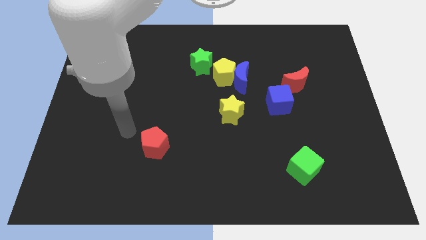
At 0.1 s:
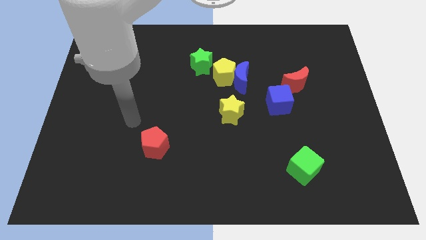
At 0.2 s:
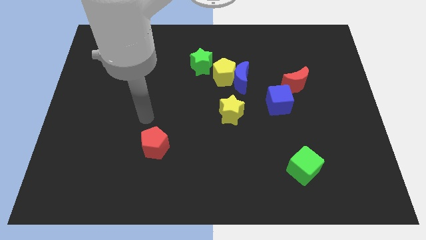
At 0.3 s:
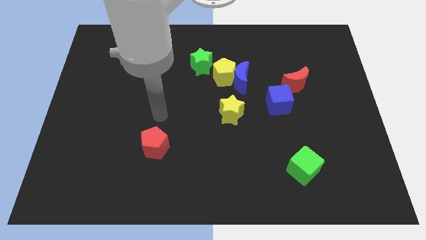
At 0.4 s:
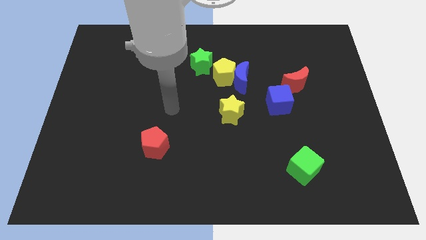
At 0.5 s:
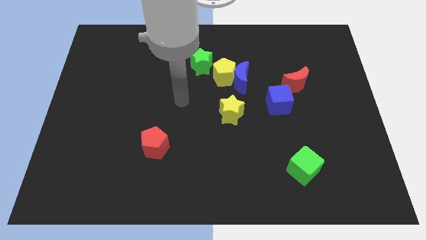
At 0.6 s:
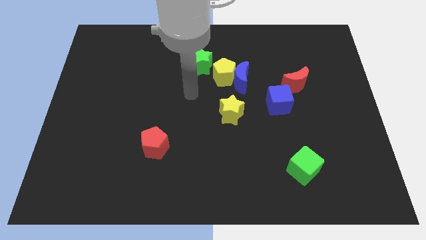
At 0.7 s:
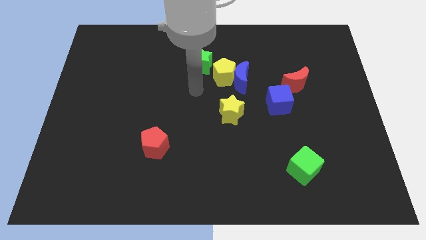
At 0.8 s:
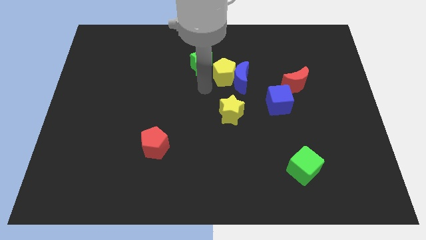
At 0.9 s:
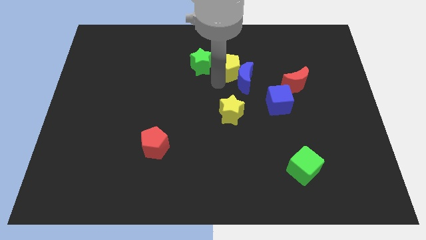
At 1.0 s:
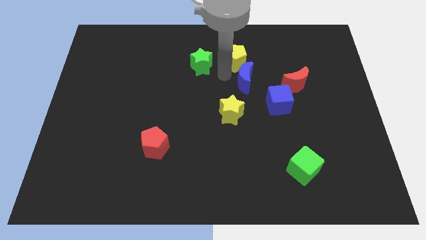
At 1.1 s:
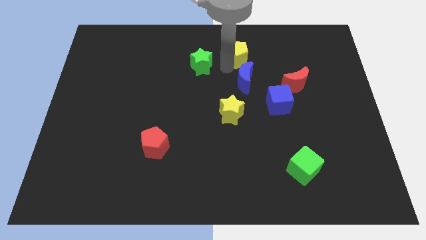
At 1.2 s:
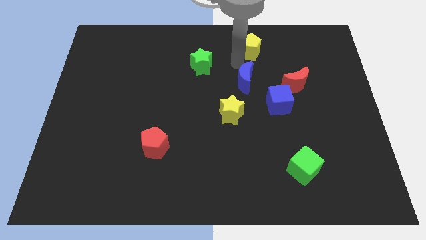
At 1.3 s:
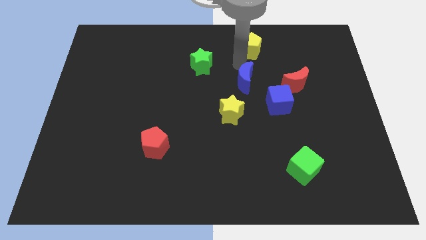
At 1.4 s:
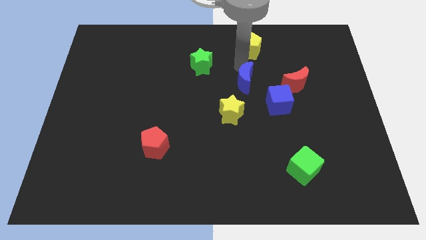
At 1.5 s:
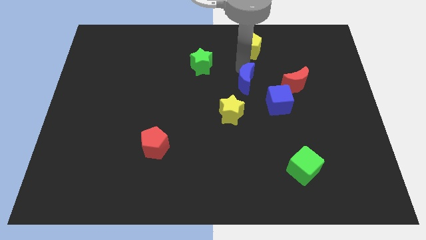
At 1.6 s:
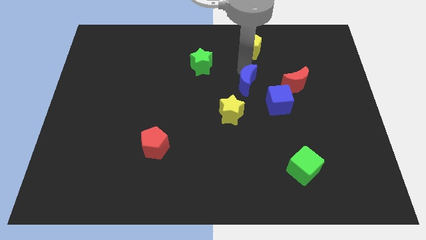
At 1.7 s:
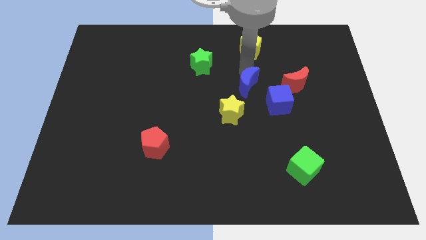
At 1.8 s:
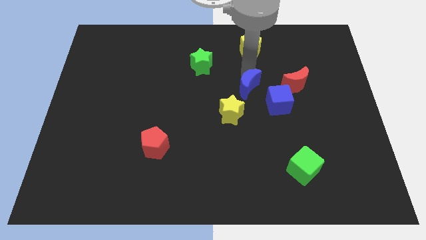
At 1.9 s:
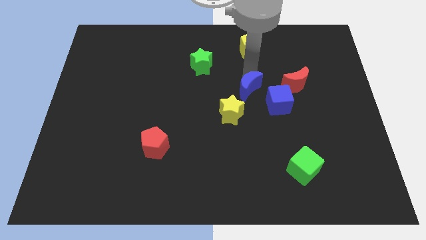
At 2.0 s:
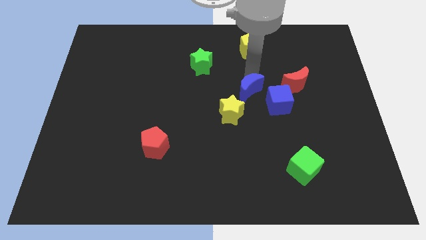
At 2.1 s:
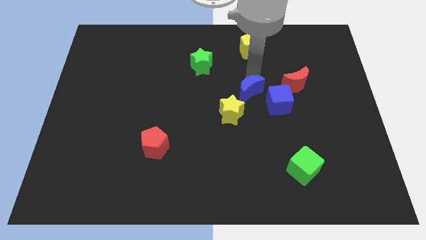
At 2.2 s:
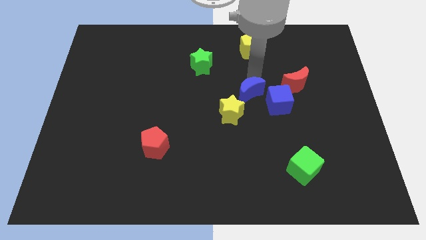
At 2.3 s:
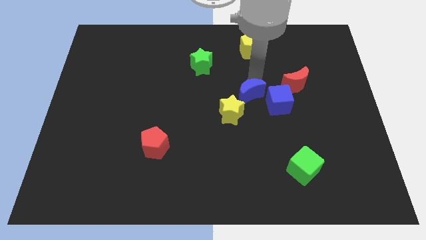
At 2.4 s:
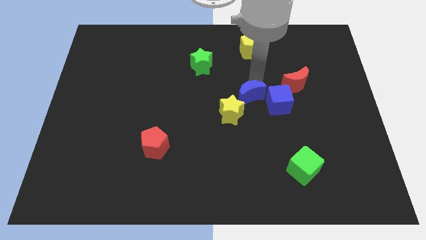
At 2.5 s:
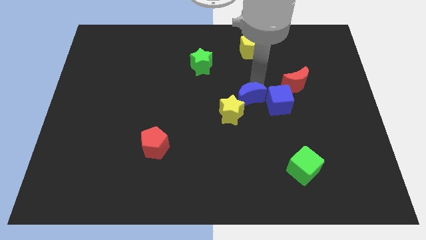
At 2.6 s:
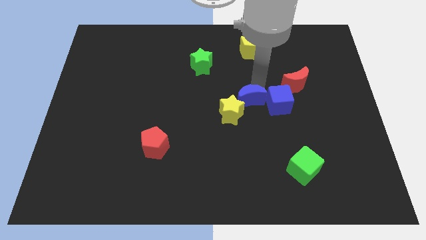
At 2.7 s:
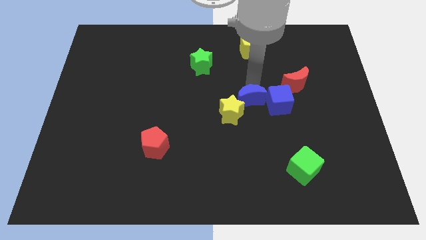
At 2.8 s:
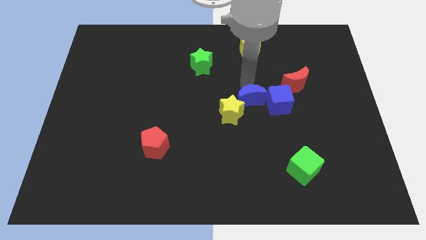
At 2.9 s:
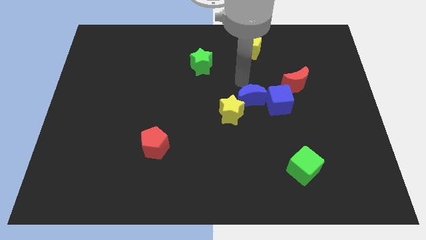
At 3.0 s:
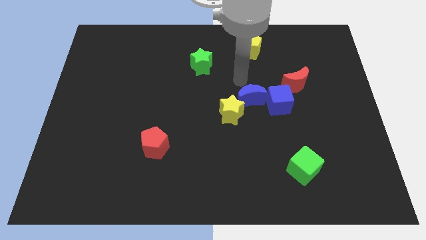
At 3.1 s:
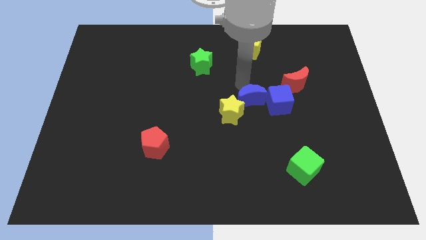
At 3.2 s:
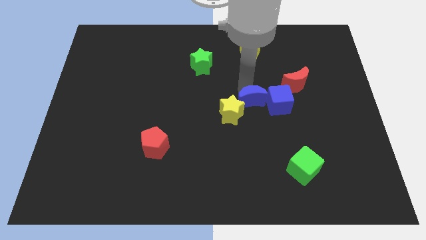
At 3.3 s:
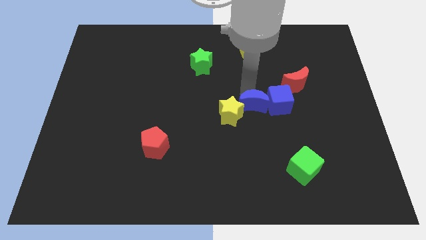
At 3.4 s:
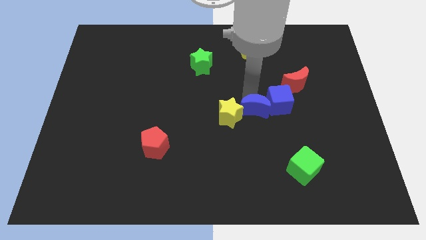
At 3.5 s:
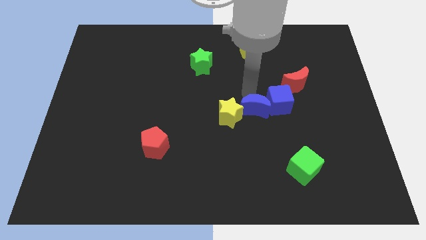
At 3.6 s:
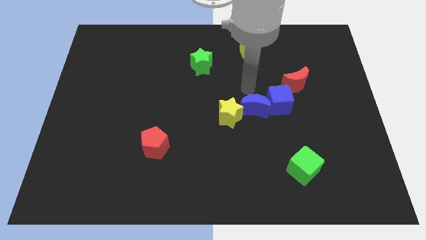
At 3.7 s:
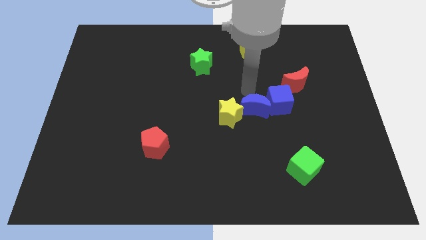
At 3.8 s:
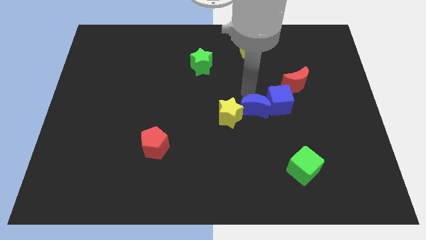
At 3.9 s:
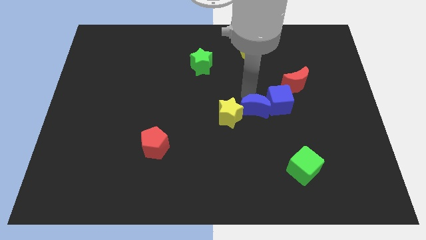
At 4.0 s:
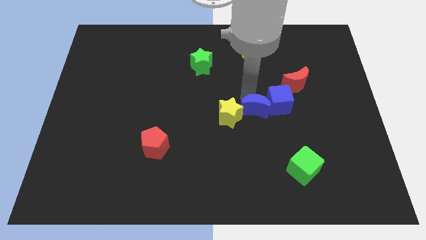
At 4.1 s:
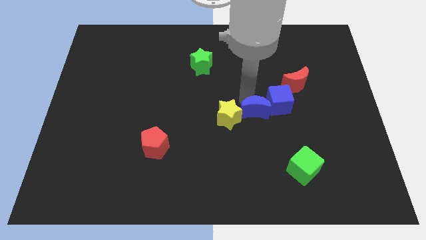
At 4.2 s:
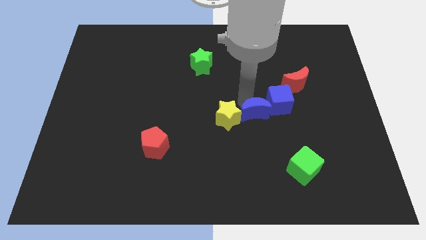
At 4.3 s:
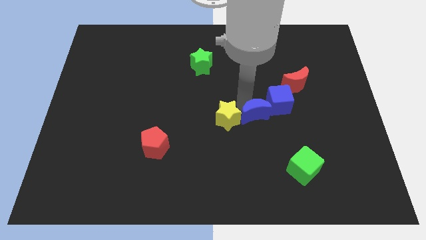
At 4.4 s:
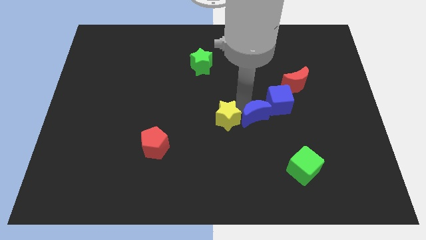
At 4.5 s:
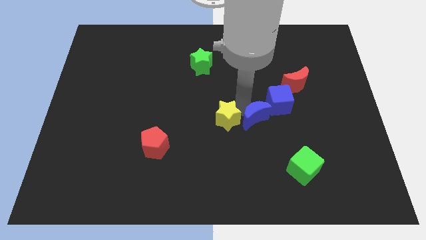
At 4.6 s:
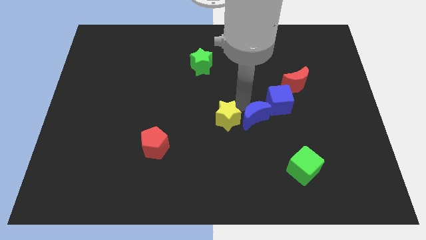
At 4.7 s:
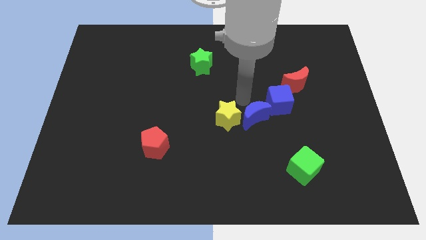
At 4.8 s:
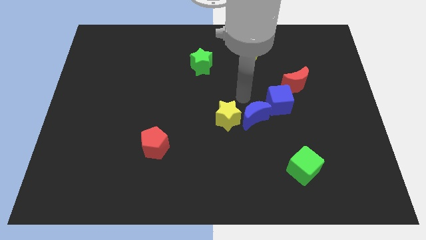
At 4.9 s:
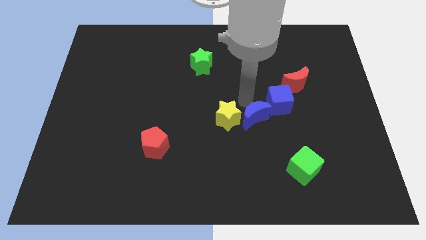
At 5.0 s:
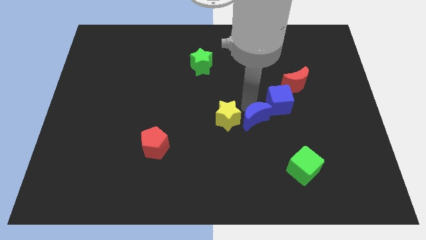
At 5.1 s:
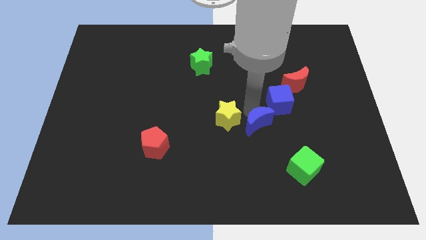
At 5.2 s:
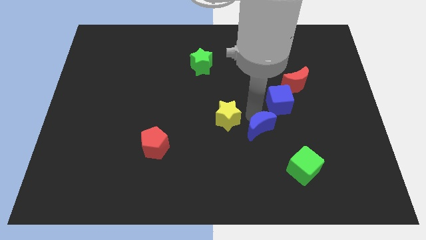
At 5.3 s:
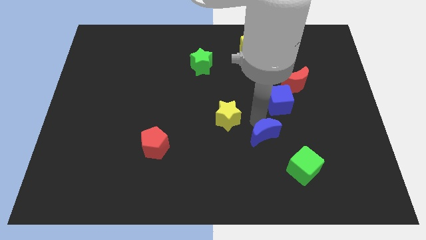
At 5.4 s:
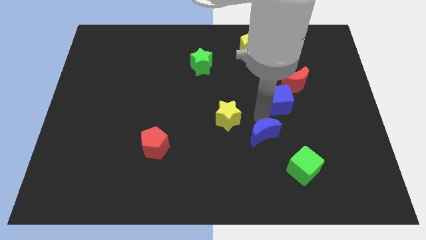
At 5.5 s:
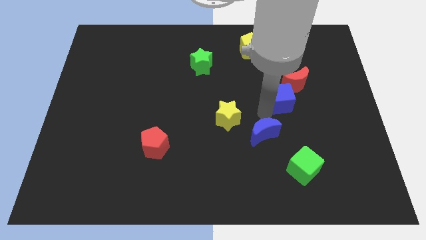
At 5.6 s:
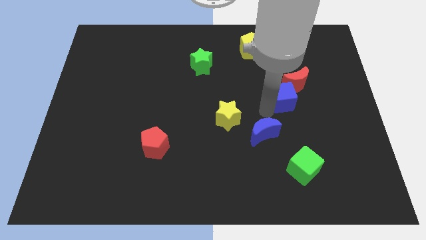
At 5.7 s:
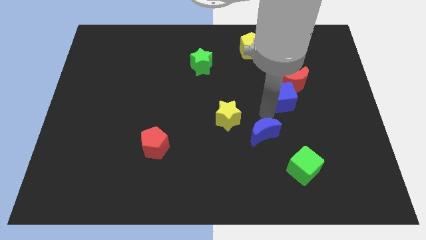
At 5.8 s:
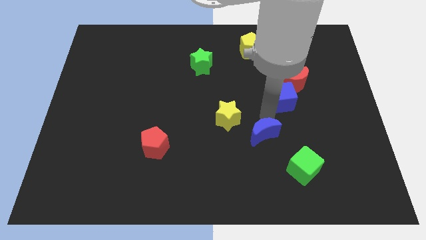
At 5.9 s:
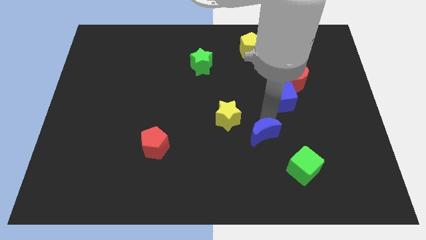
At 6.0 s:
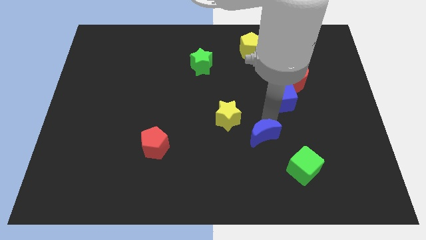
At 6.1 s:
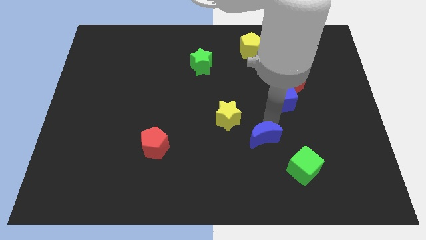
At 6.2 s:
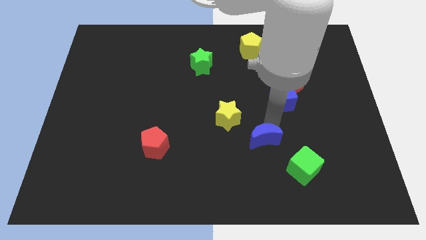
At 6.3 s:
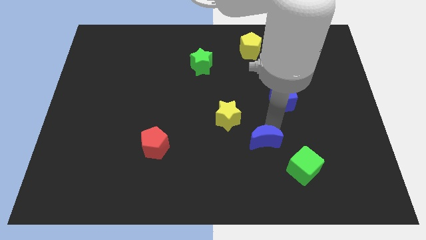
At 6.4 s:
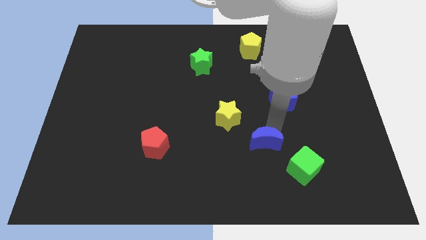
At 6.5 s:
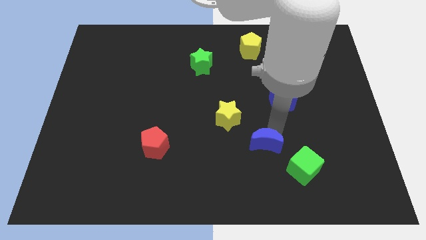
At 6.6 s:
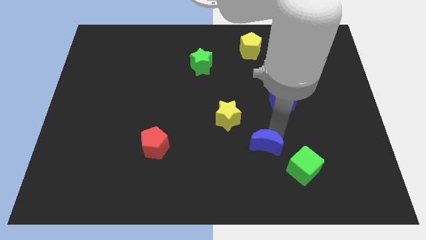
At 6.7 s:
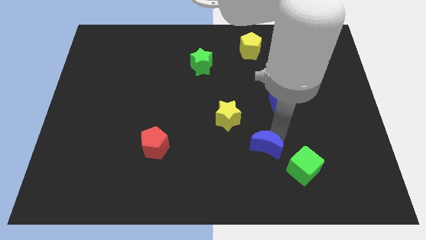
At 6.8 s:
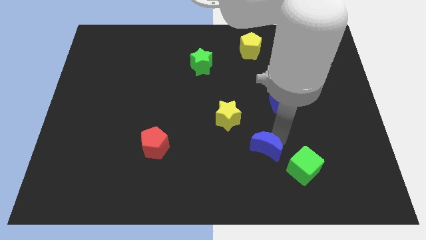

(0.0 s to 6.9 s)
push the blue moon left of the green cube
